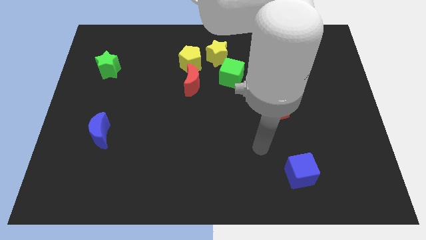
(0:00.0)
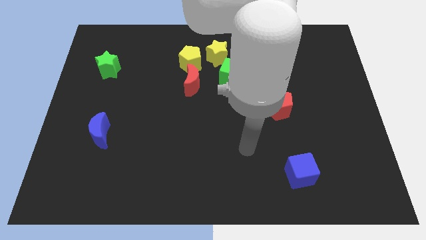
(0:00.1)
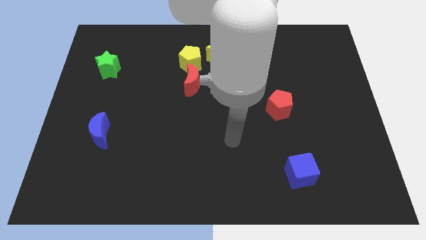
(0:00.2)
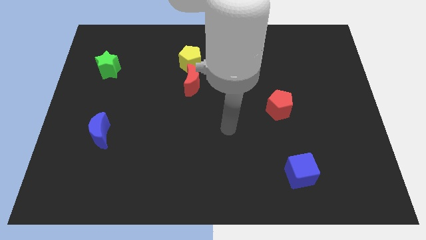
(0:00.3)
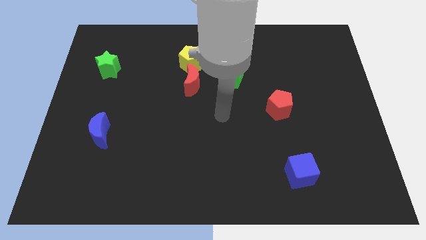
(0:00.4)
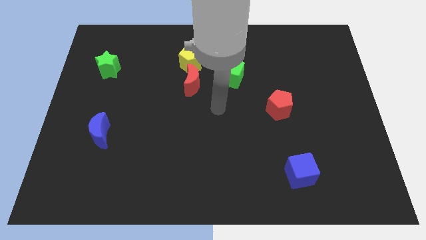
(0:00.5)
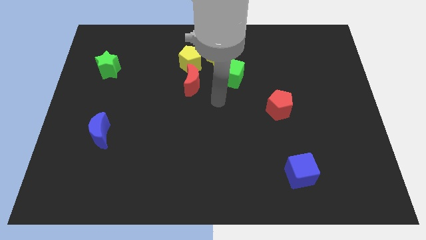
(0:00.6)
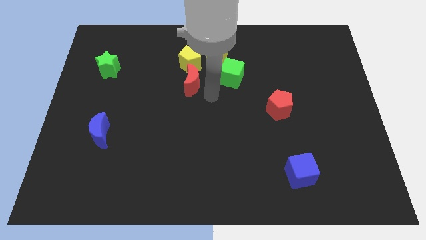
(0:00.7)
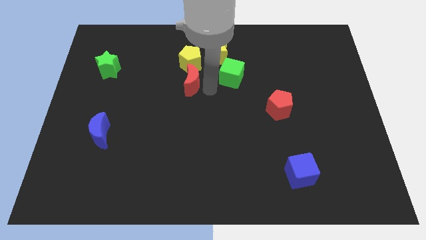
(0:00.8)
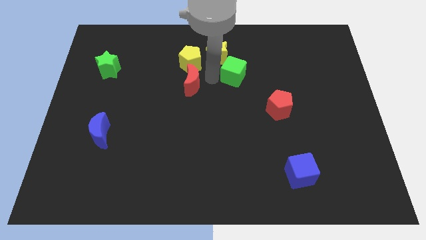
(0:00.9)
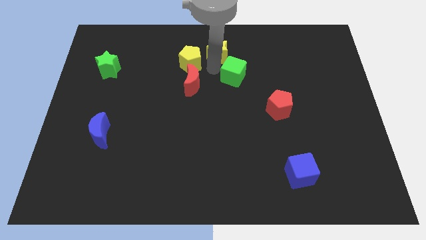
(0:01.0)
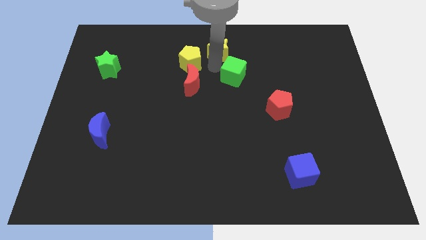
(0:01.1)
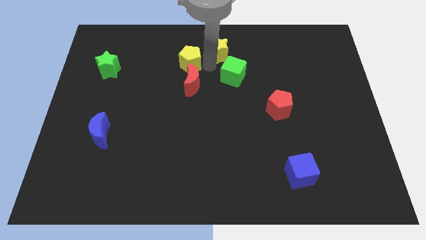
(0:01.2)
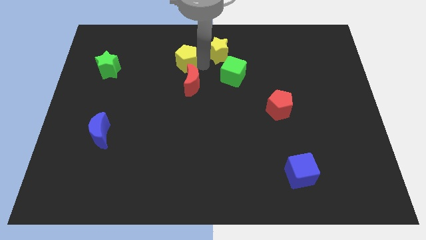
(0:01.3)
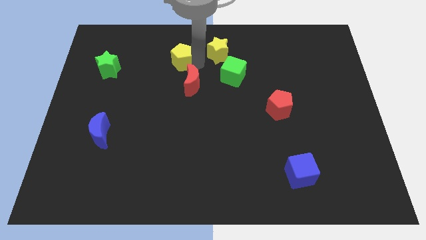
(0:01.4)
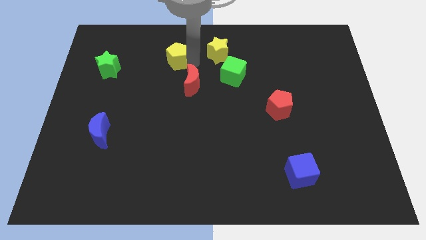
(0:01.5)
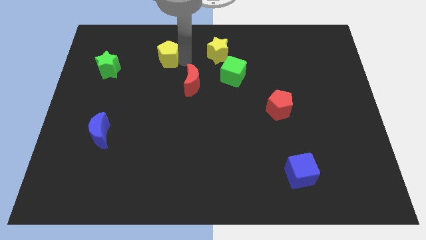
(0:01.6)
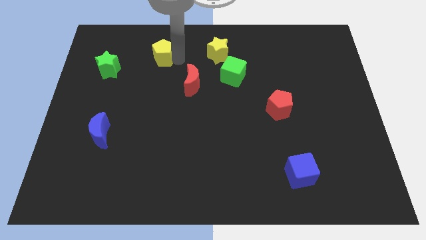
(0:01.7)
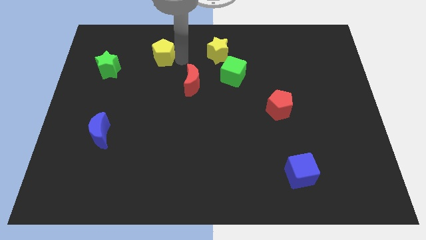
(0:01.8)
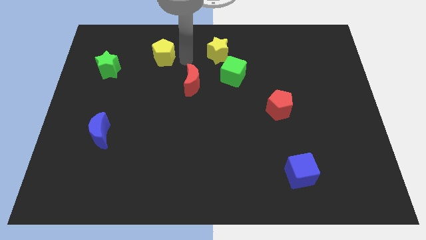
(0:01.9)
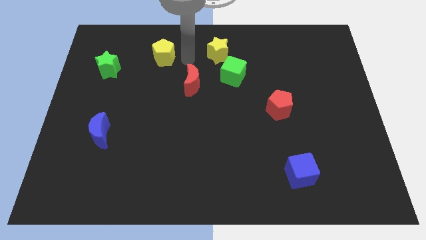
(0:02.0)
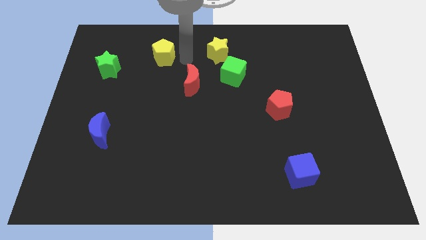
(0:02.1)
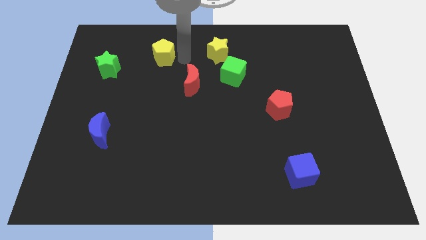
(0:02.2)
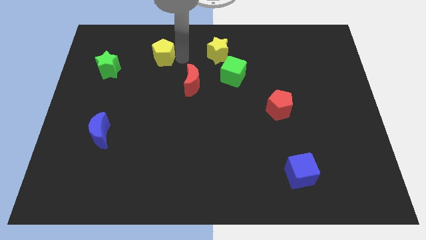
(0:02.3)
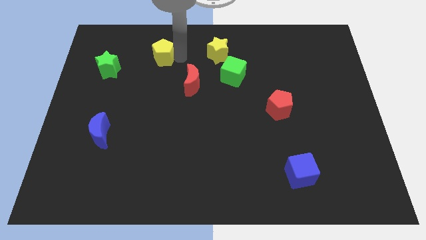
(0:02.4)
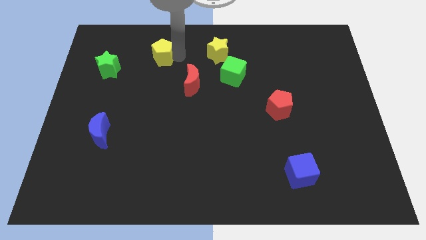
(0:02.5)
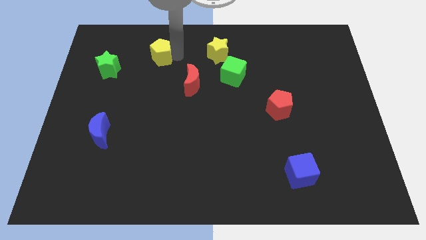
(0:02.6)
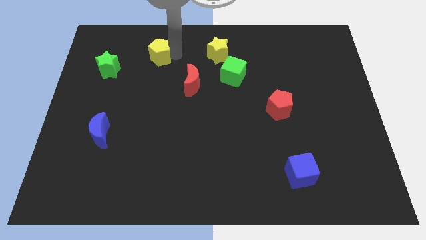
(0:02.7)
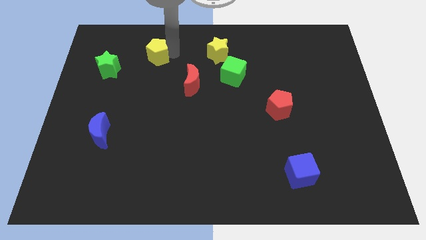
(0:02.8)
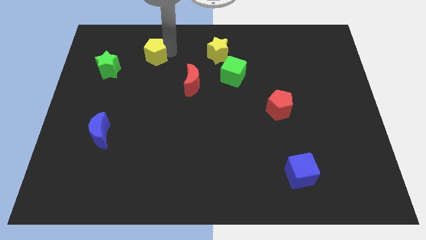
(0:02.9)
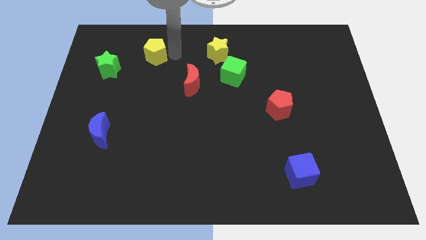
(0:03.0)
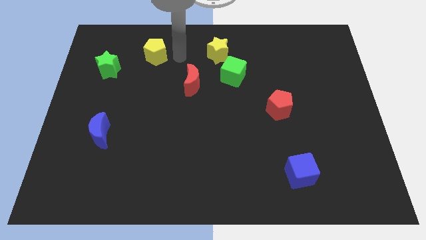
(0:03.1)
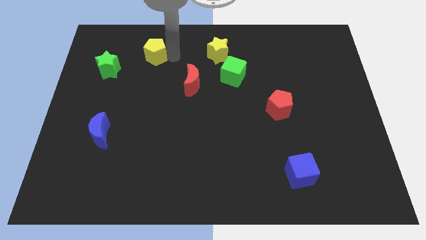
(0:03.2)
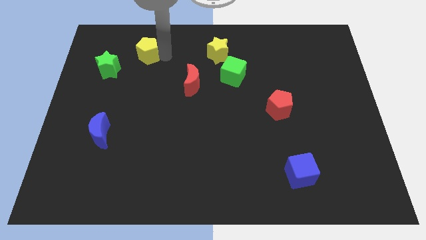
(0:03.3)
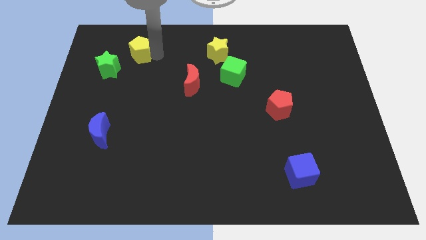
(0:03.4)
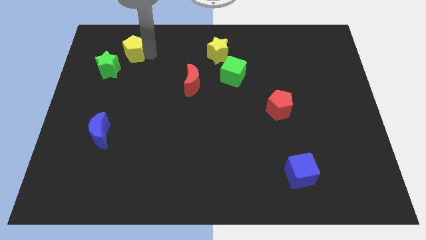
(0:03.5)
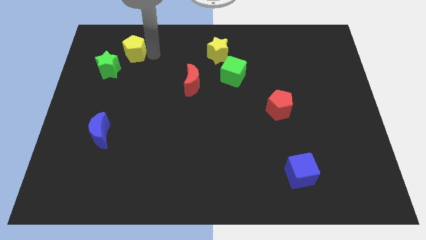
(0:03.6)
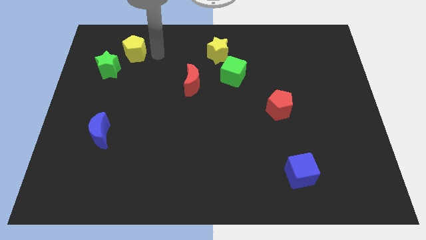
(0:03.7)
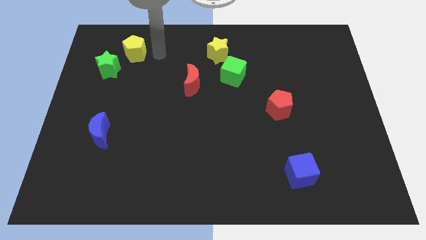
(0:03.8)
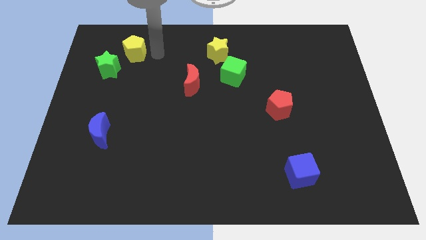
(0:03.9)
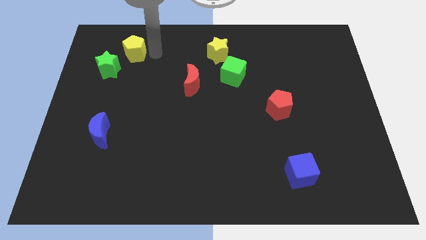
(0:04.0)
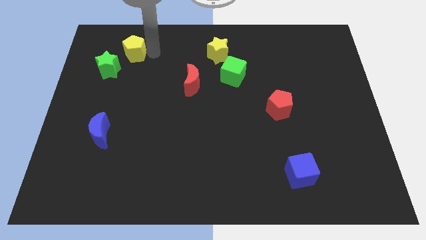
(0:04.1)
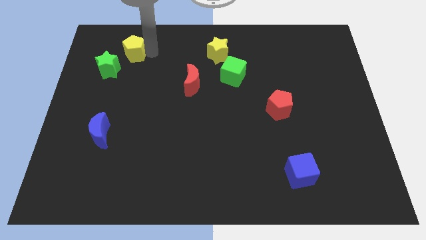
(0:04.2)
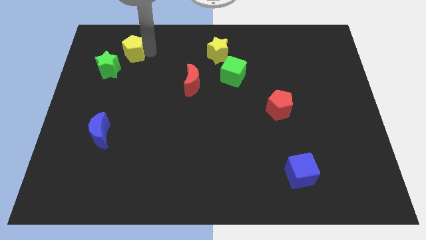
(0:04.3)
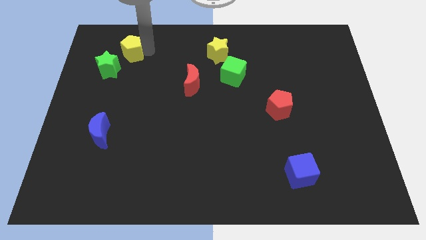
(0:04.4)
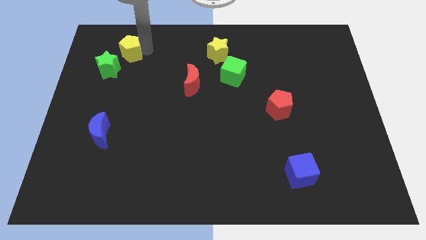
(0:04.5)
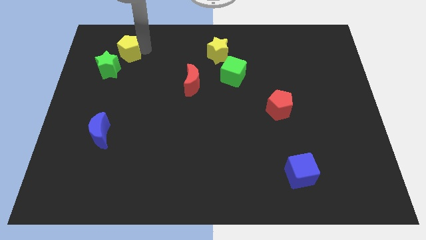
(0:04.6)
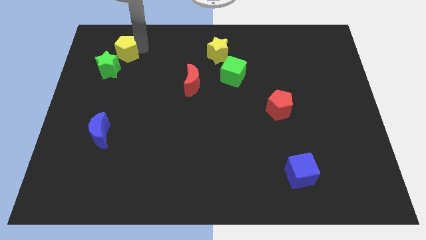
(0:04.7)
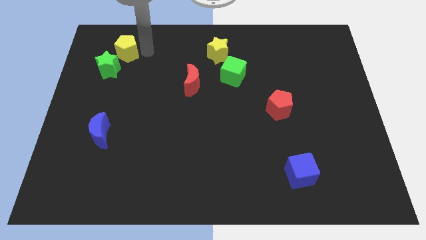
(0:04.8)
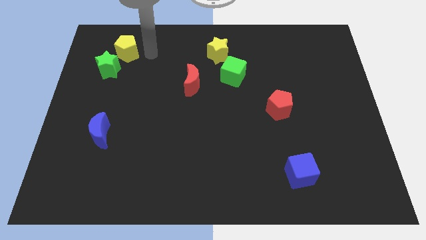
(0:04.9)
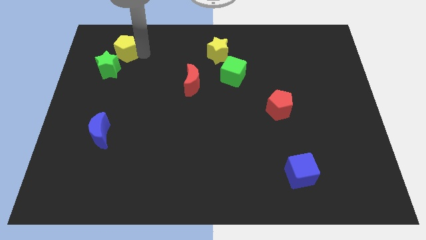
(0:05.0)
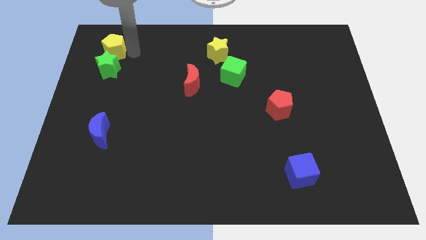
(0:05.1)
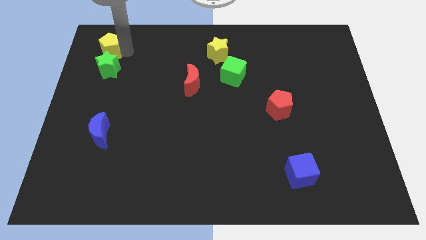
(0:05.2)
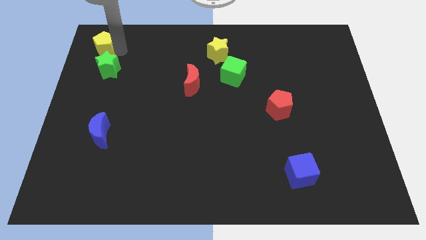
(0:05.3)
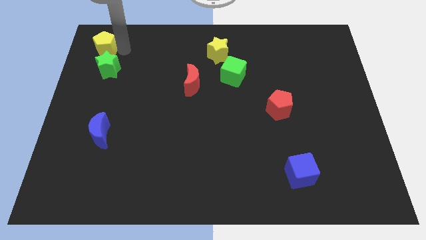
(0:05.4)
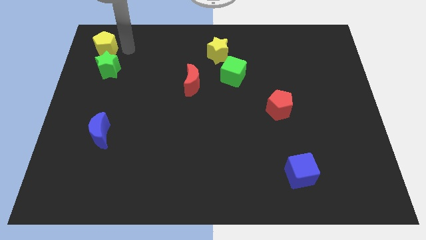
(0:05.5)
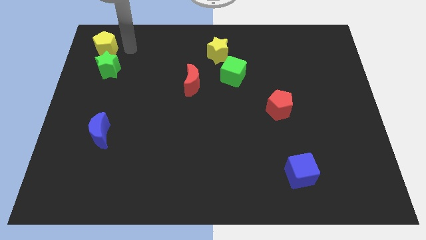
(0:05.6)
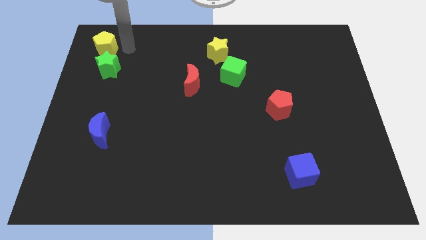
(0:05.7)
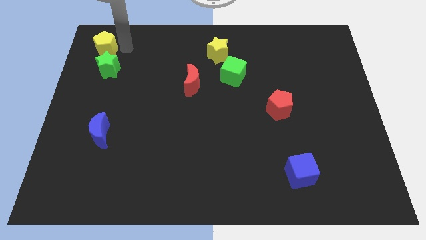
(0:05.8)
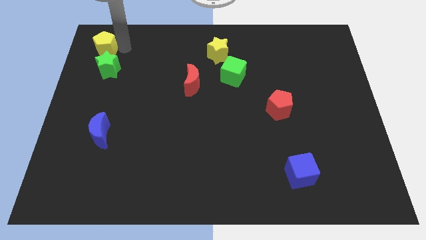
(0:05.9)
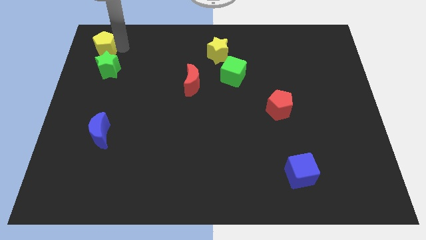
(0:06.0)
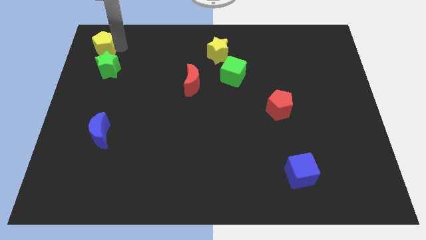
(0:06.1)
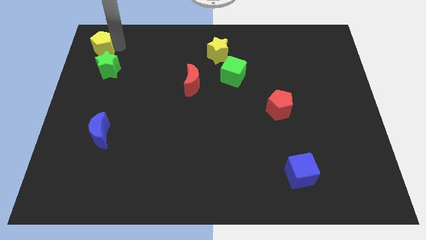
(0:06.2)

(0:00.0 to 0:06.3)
push the yellow pentagon to the top left

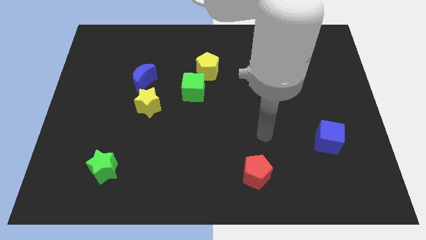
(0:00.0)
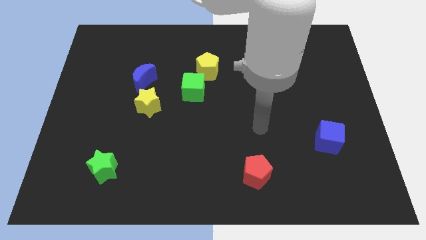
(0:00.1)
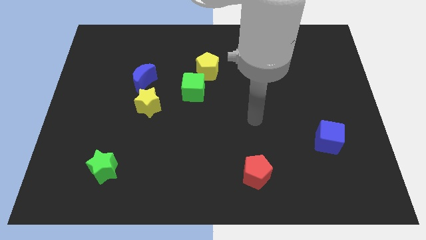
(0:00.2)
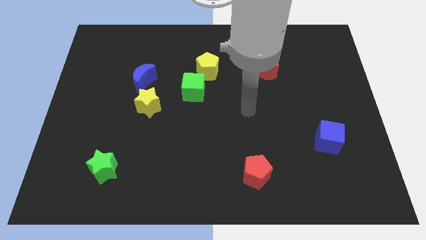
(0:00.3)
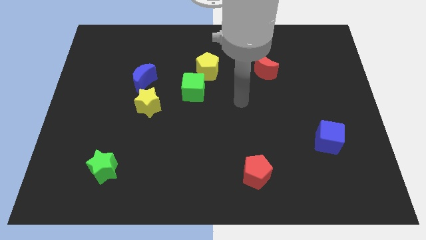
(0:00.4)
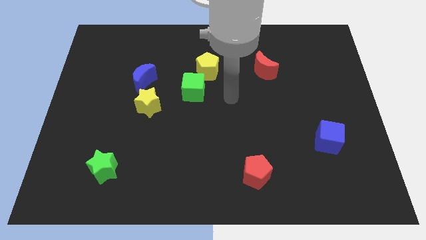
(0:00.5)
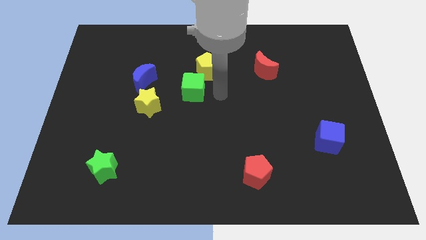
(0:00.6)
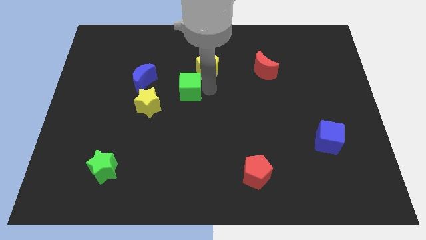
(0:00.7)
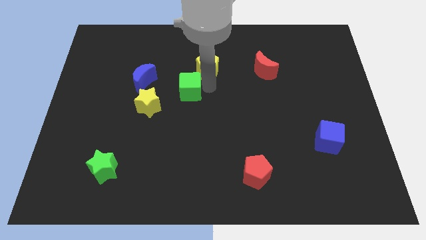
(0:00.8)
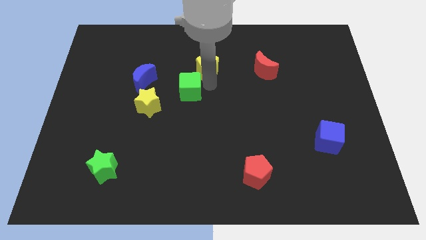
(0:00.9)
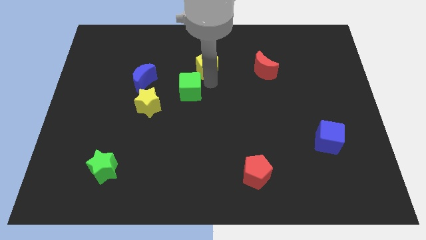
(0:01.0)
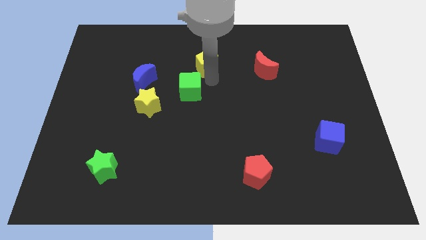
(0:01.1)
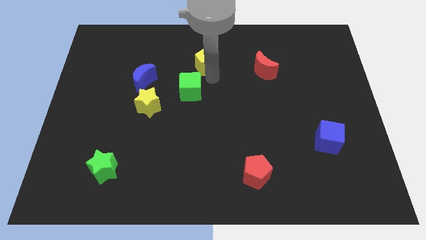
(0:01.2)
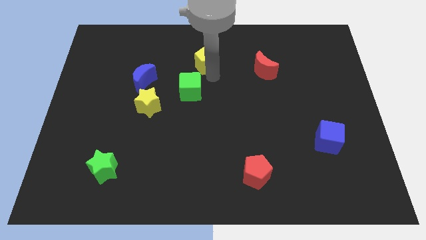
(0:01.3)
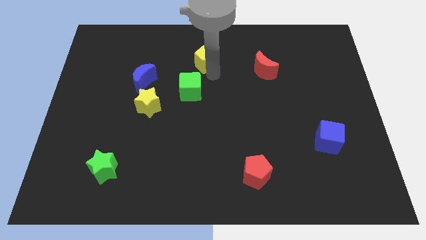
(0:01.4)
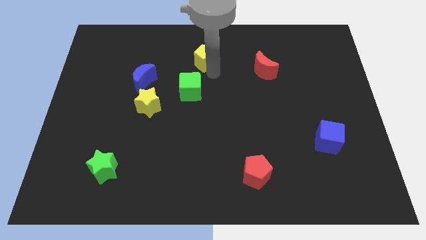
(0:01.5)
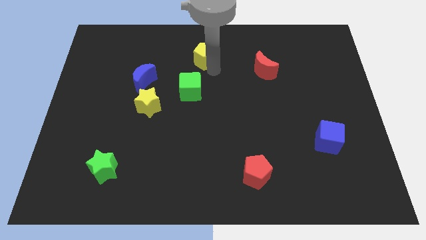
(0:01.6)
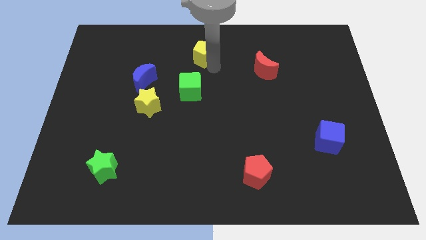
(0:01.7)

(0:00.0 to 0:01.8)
move the yellow pentagon to the top
